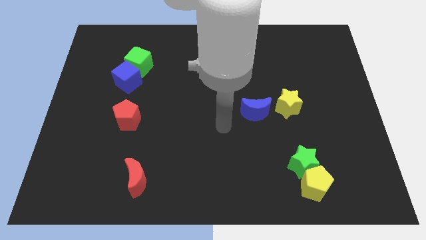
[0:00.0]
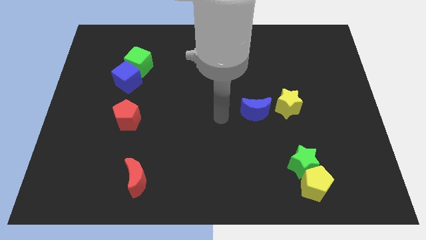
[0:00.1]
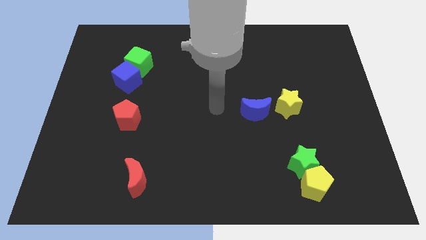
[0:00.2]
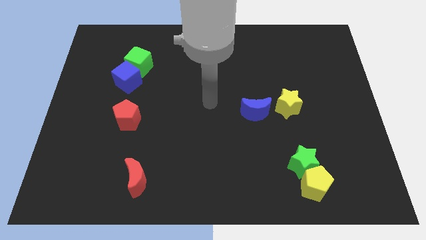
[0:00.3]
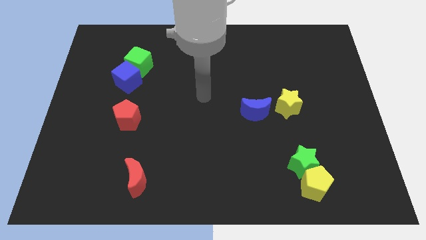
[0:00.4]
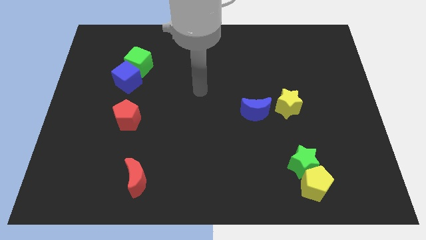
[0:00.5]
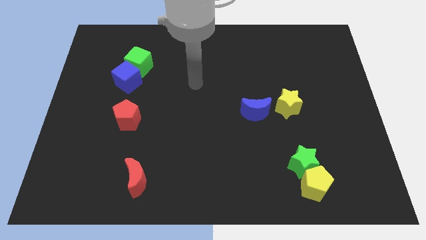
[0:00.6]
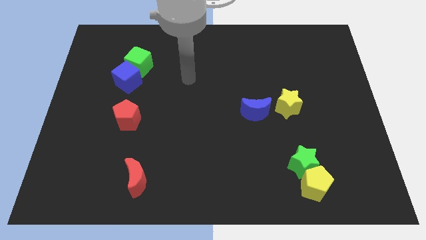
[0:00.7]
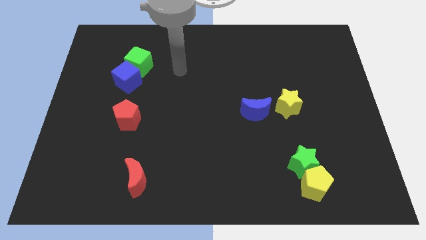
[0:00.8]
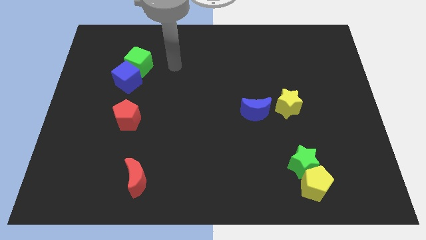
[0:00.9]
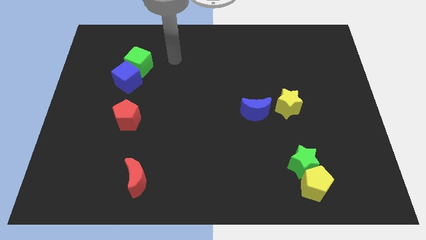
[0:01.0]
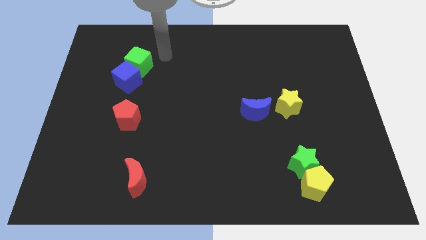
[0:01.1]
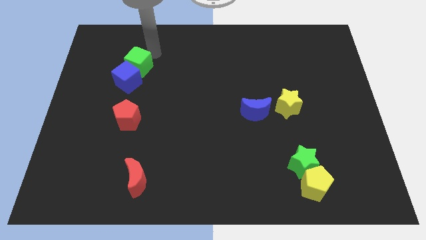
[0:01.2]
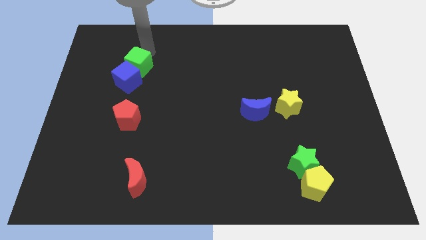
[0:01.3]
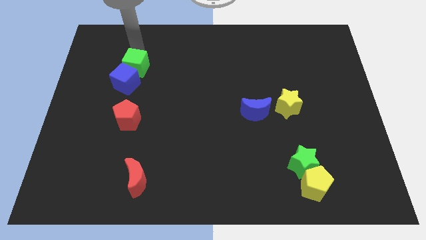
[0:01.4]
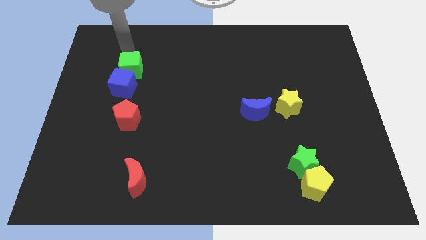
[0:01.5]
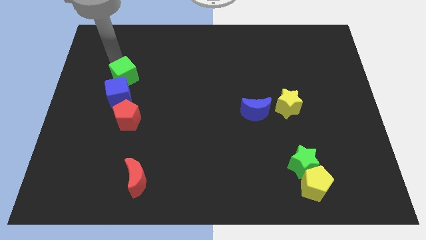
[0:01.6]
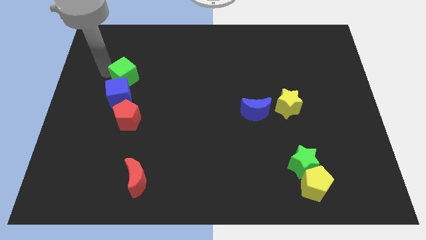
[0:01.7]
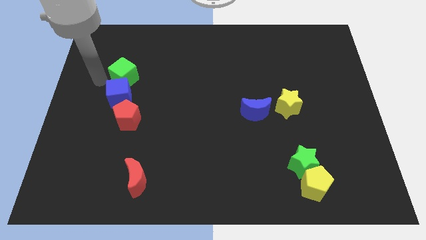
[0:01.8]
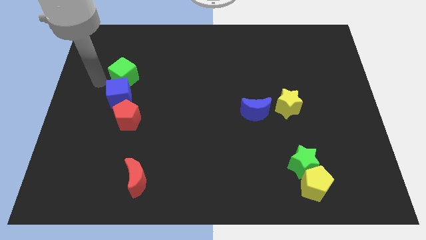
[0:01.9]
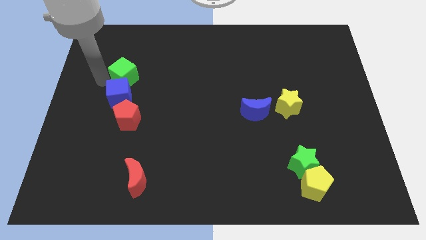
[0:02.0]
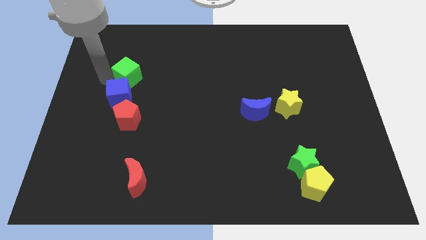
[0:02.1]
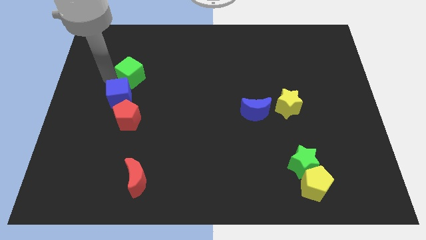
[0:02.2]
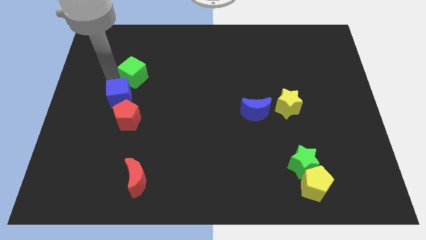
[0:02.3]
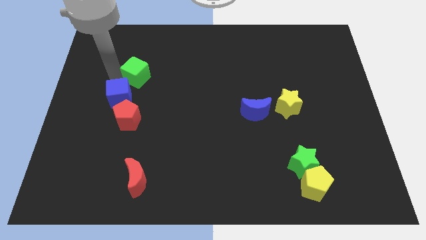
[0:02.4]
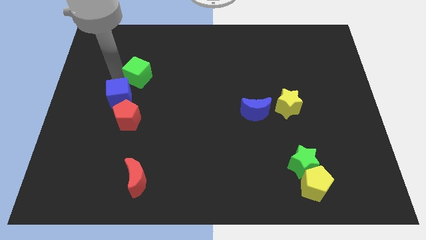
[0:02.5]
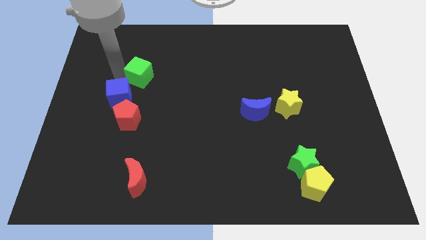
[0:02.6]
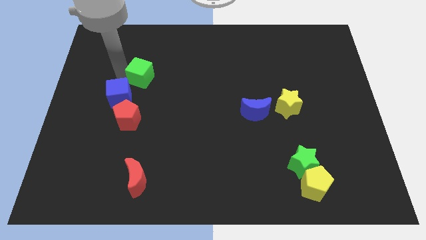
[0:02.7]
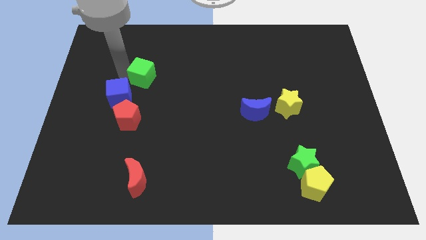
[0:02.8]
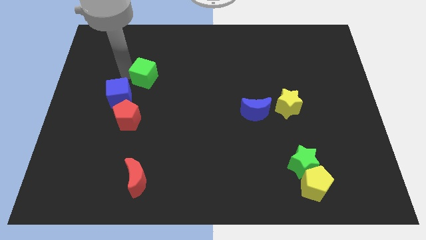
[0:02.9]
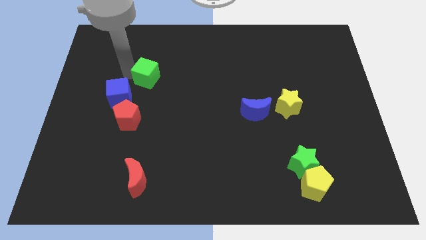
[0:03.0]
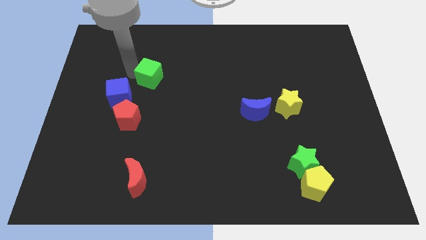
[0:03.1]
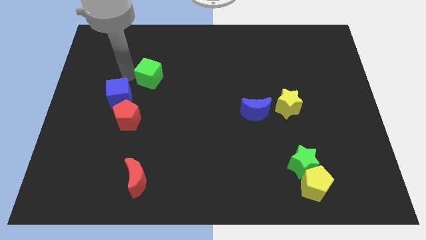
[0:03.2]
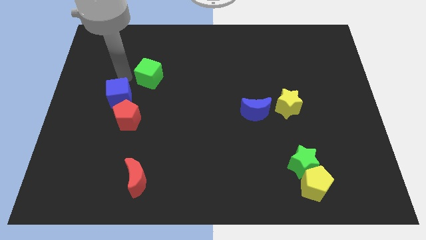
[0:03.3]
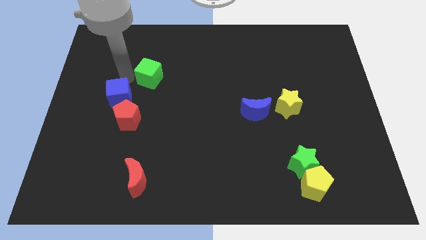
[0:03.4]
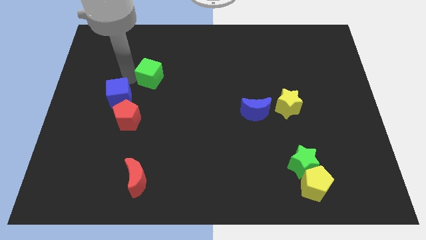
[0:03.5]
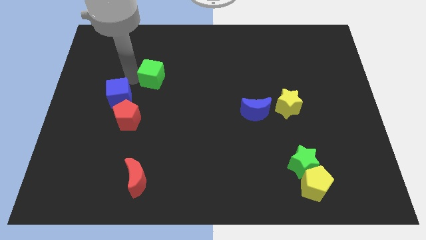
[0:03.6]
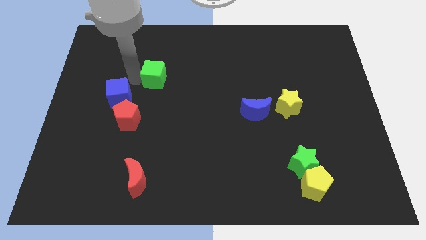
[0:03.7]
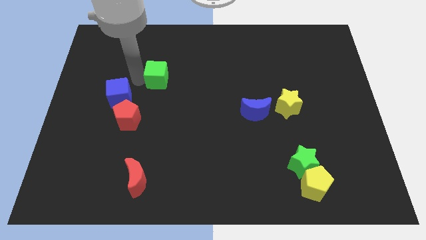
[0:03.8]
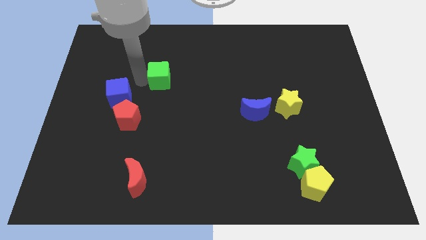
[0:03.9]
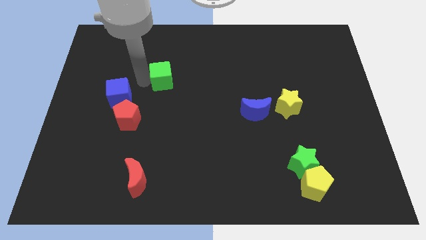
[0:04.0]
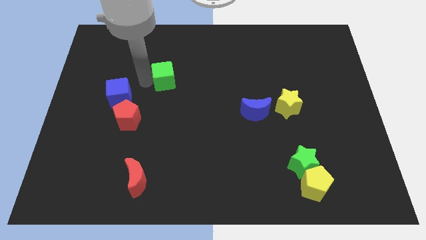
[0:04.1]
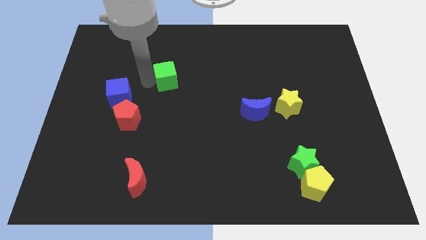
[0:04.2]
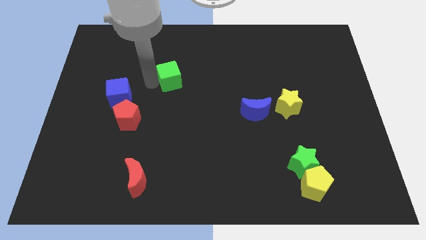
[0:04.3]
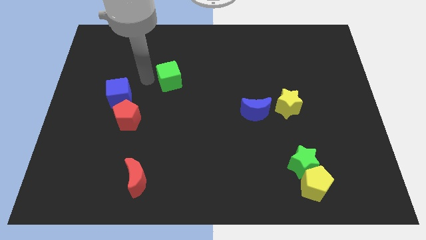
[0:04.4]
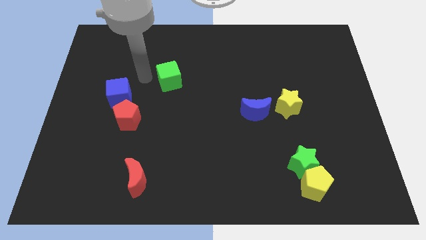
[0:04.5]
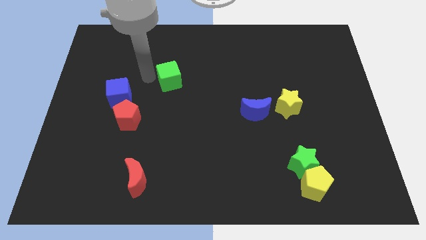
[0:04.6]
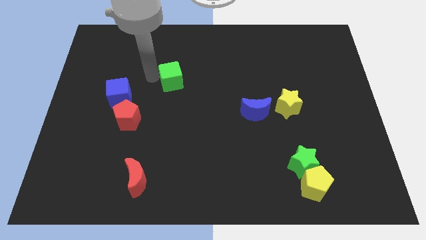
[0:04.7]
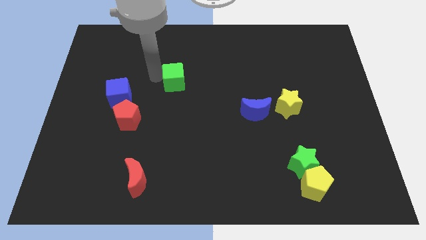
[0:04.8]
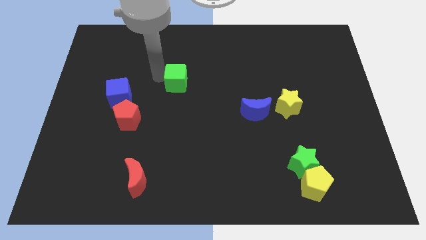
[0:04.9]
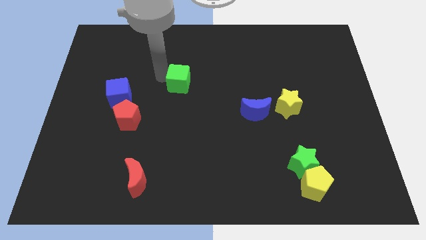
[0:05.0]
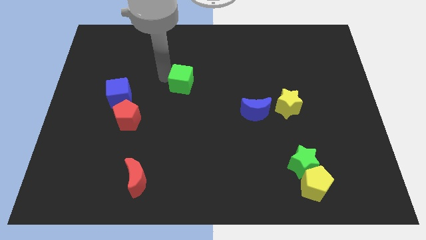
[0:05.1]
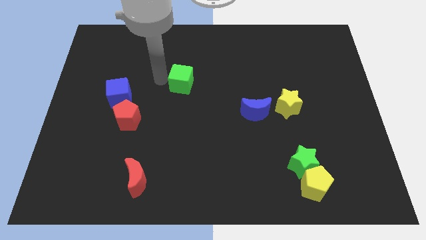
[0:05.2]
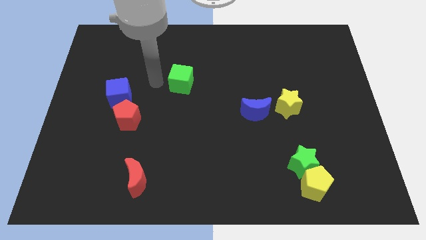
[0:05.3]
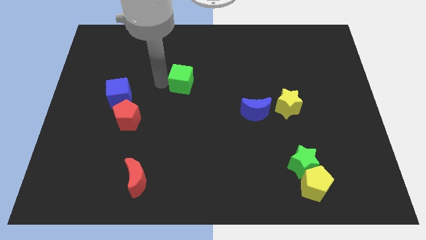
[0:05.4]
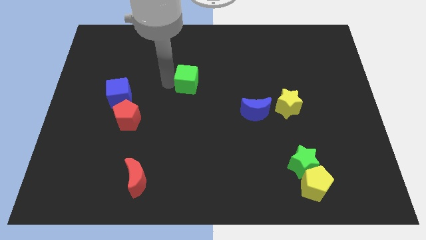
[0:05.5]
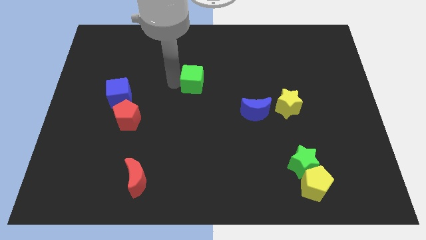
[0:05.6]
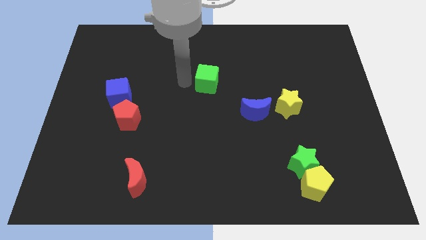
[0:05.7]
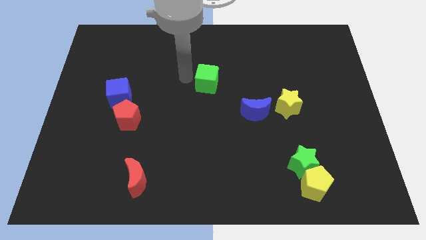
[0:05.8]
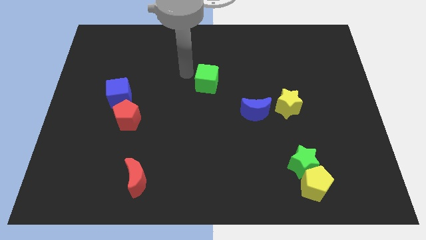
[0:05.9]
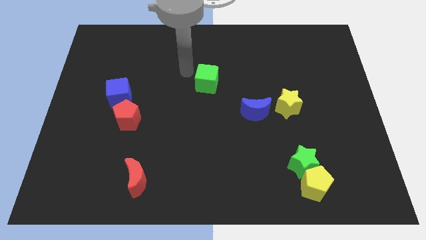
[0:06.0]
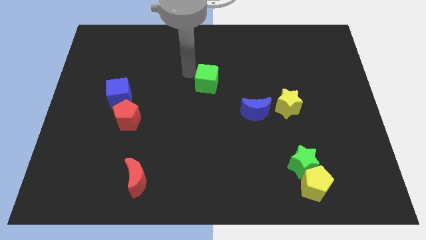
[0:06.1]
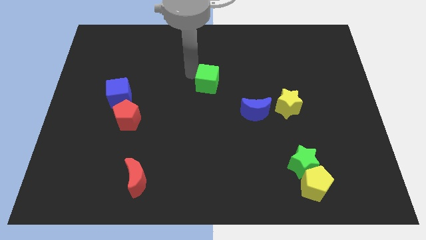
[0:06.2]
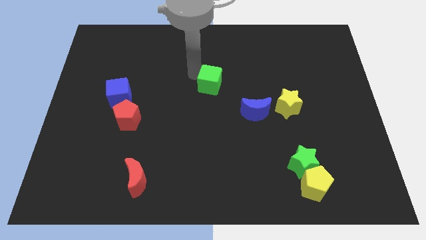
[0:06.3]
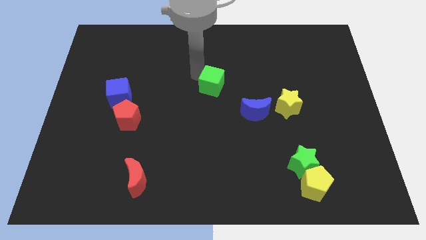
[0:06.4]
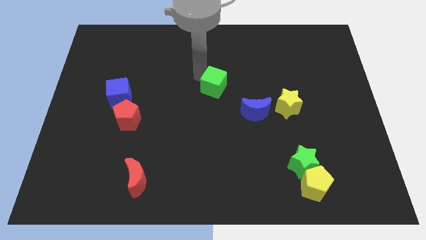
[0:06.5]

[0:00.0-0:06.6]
put the green cube to the top left of the blue moon

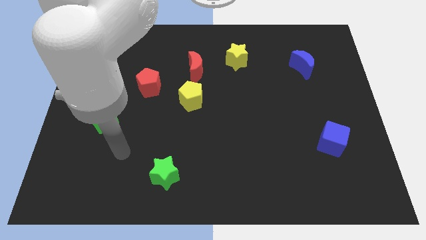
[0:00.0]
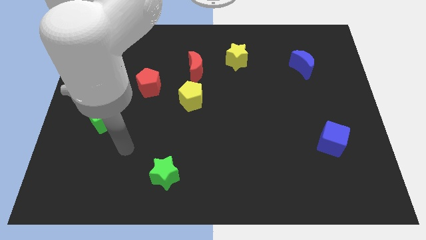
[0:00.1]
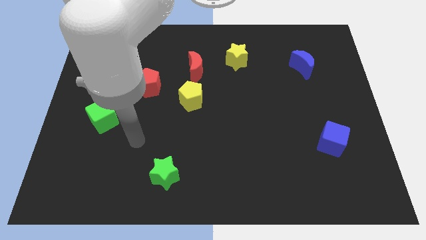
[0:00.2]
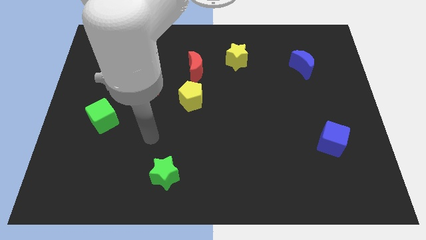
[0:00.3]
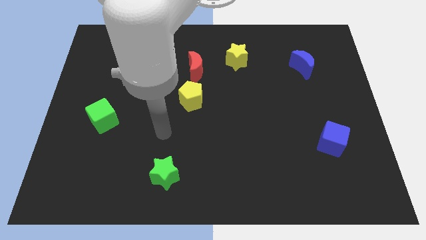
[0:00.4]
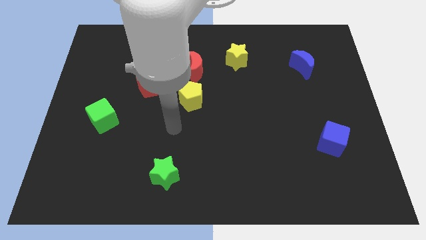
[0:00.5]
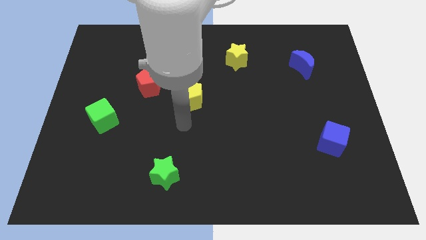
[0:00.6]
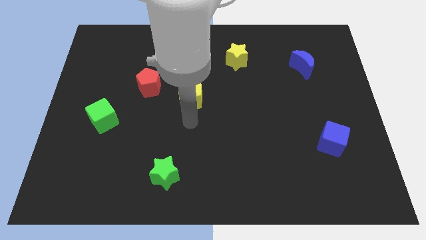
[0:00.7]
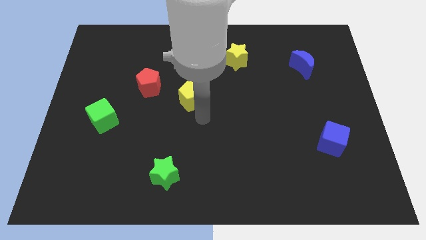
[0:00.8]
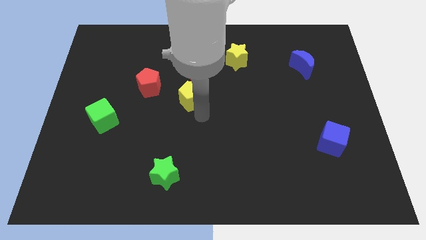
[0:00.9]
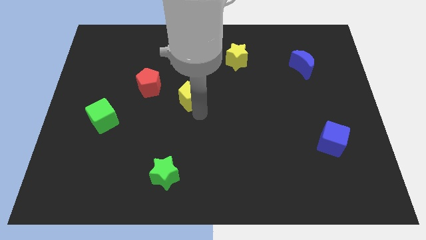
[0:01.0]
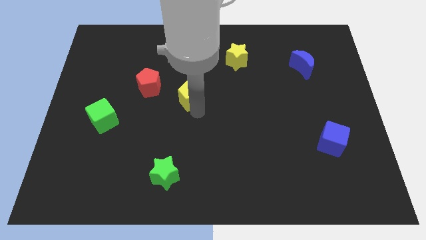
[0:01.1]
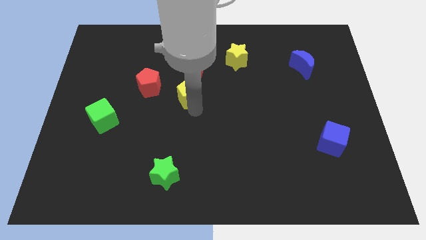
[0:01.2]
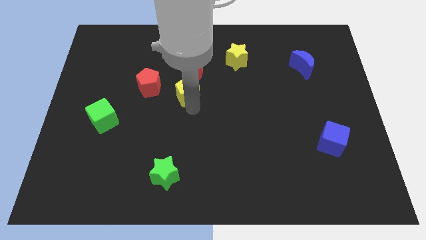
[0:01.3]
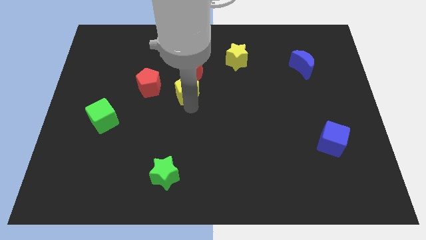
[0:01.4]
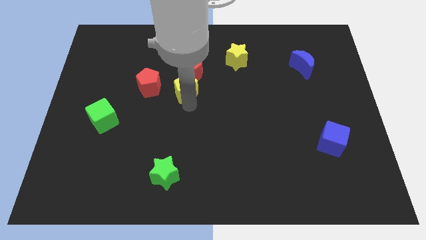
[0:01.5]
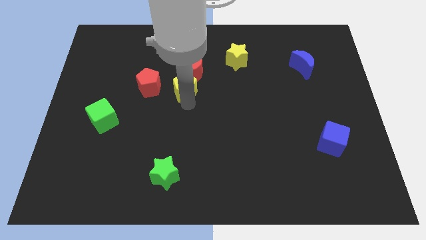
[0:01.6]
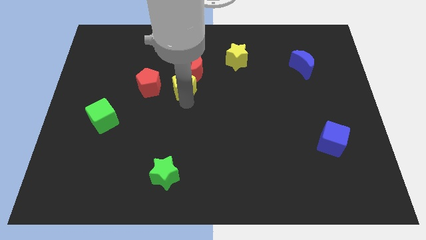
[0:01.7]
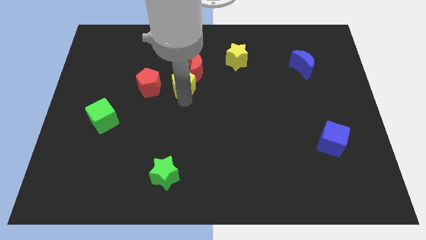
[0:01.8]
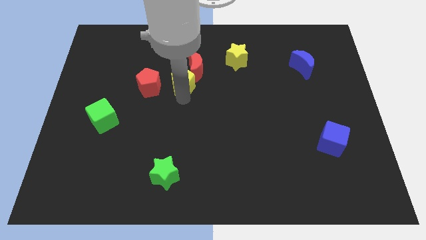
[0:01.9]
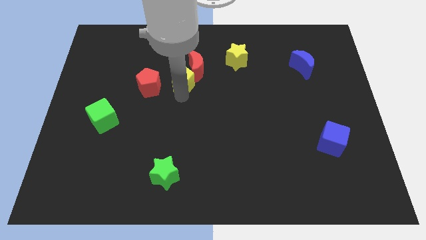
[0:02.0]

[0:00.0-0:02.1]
move the yellow pentagon diagonally up and to the right of the red pentagon
